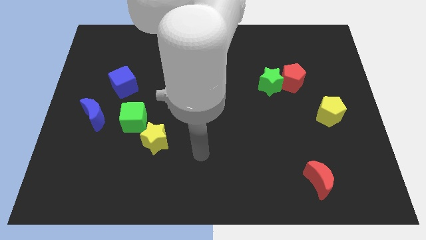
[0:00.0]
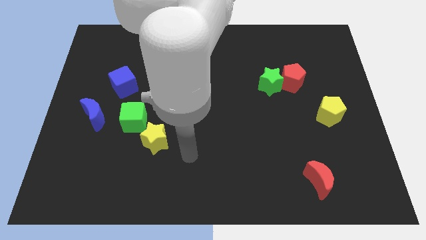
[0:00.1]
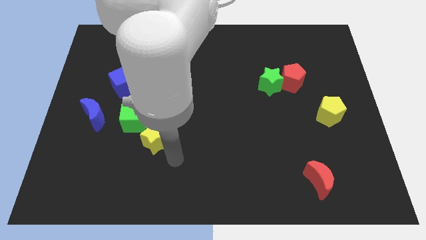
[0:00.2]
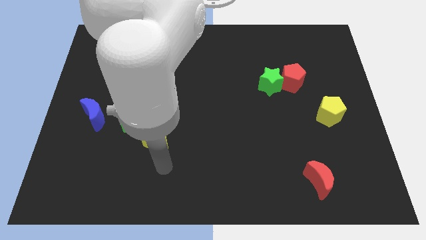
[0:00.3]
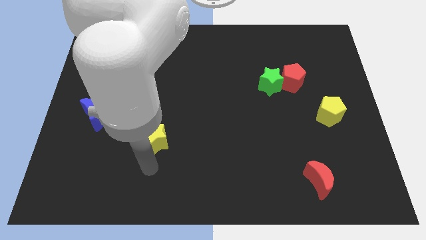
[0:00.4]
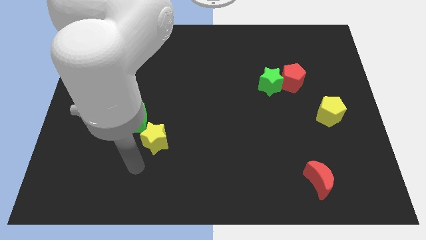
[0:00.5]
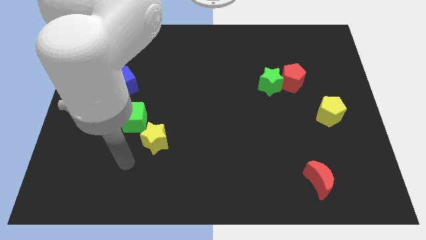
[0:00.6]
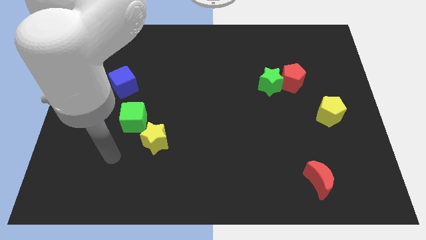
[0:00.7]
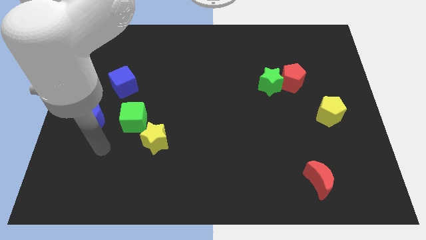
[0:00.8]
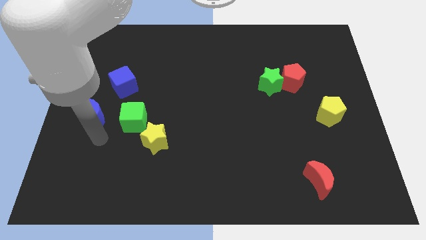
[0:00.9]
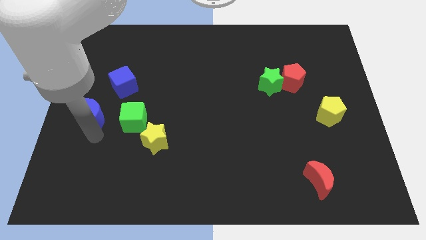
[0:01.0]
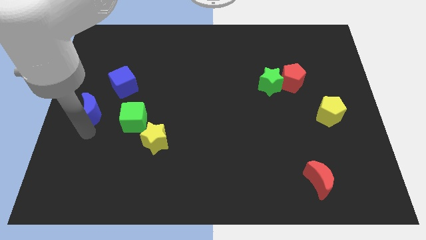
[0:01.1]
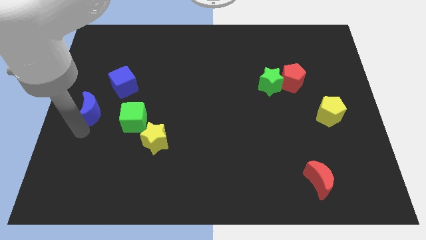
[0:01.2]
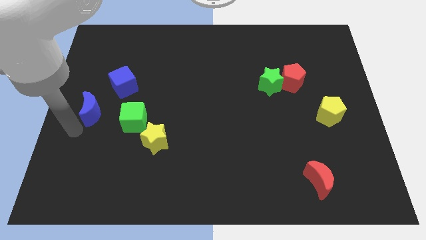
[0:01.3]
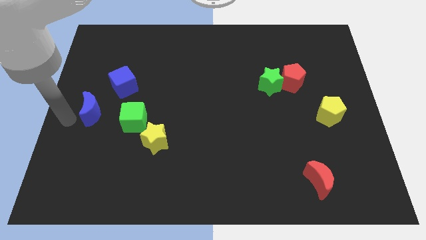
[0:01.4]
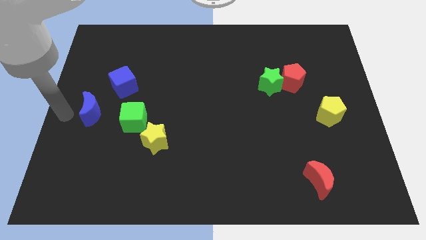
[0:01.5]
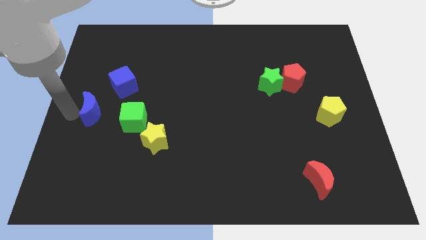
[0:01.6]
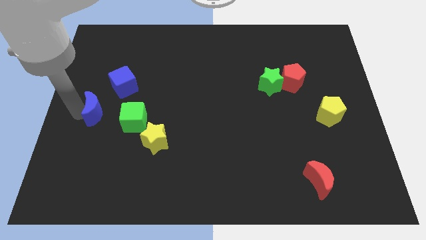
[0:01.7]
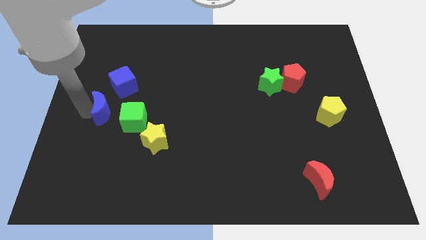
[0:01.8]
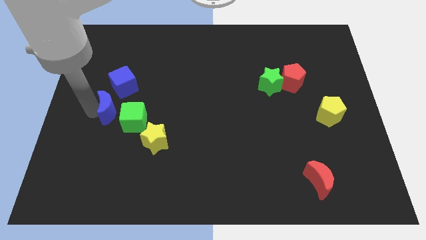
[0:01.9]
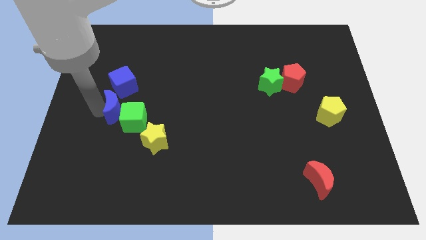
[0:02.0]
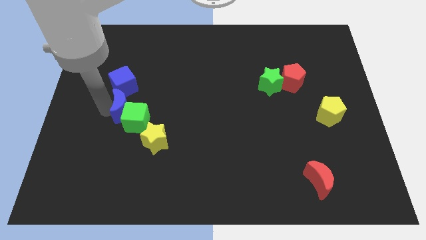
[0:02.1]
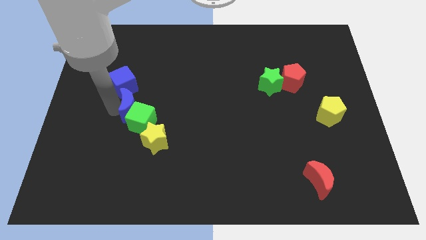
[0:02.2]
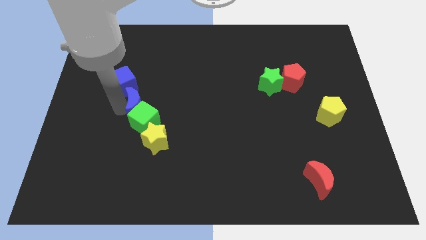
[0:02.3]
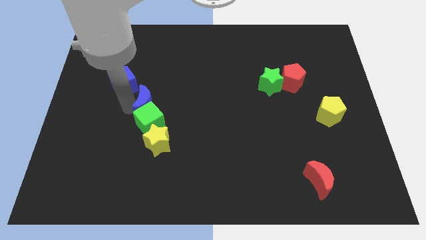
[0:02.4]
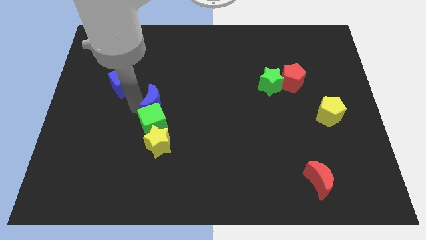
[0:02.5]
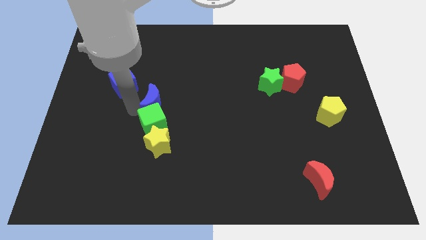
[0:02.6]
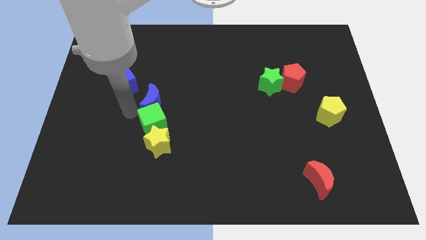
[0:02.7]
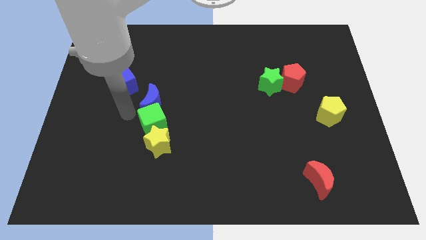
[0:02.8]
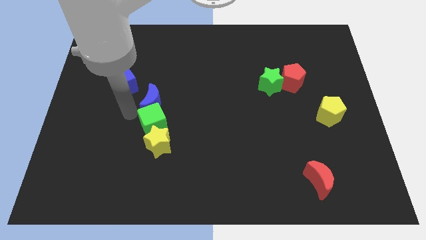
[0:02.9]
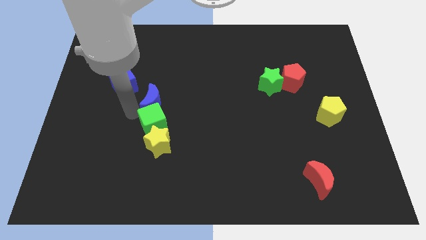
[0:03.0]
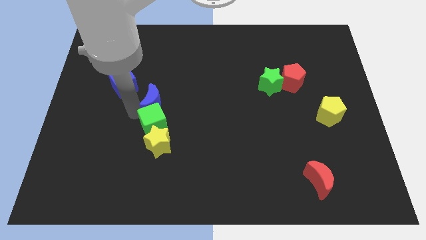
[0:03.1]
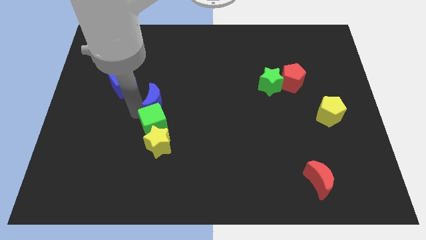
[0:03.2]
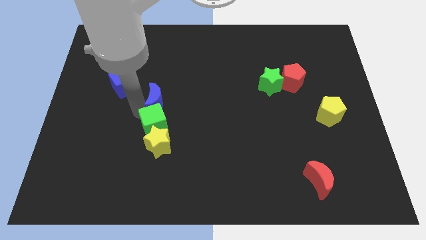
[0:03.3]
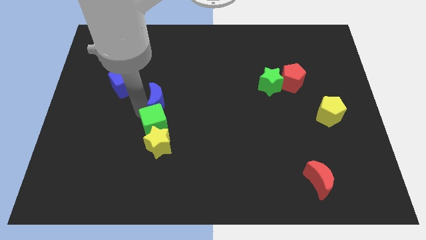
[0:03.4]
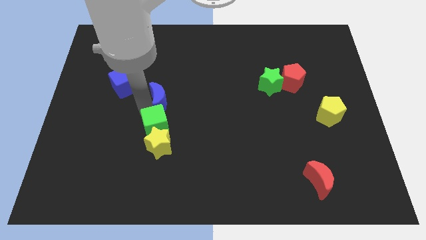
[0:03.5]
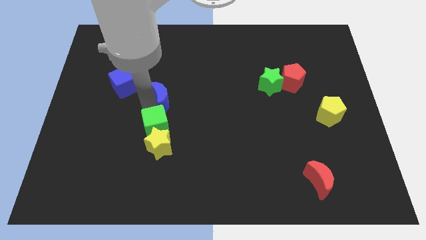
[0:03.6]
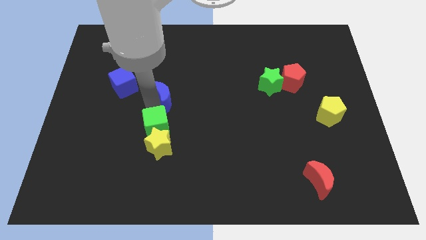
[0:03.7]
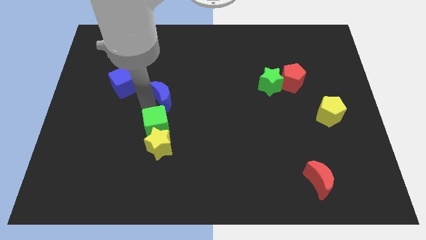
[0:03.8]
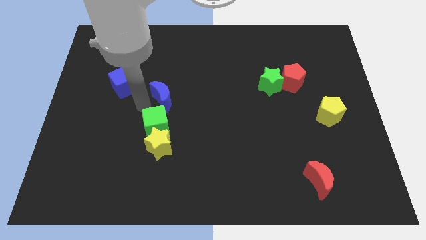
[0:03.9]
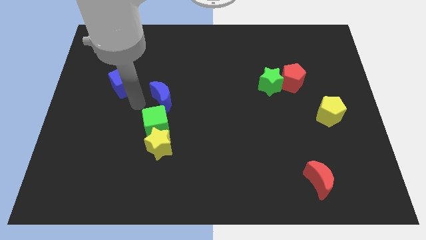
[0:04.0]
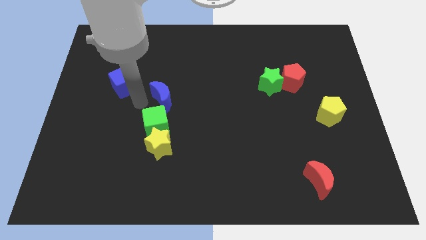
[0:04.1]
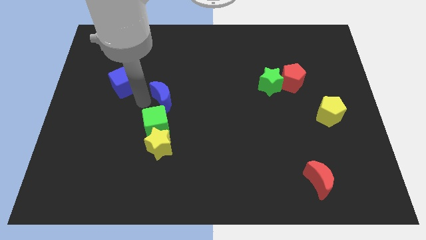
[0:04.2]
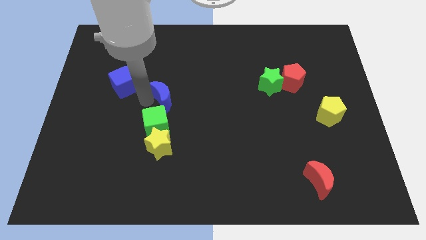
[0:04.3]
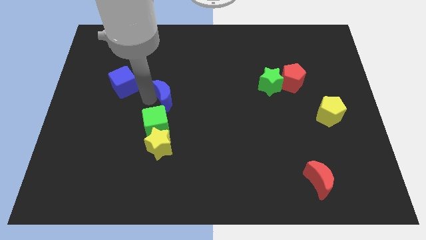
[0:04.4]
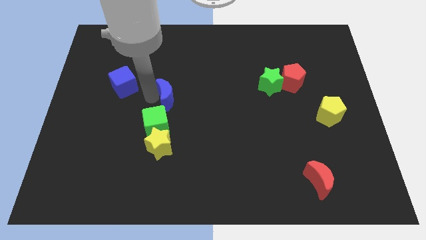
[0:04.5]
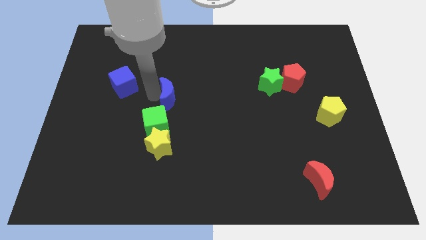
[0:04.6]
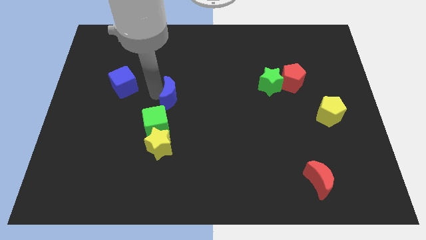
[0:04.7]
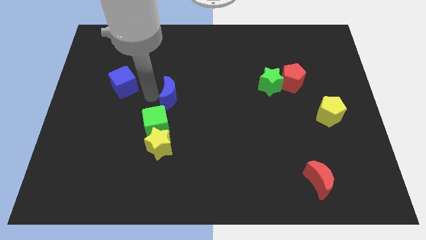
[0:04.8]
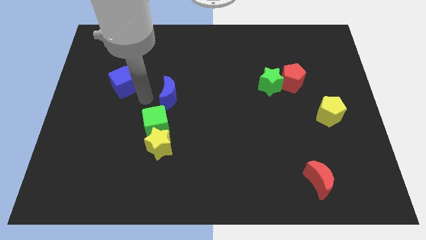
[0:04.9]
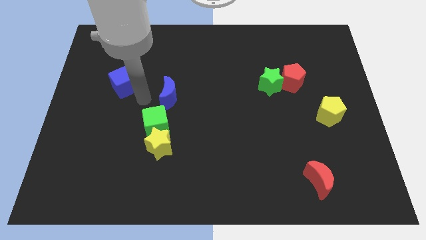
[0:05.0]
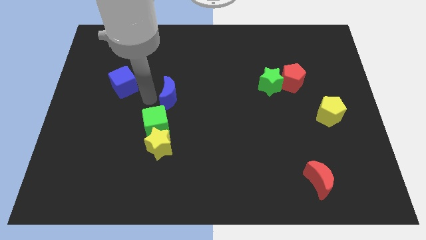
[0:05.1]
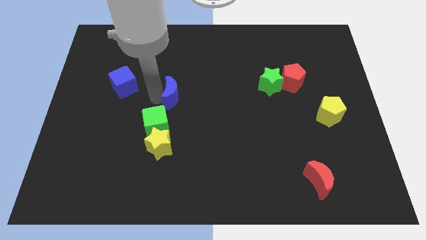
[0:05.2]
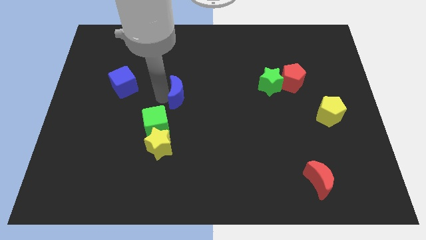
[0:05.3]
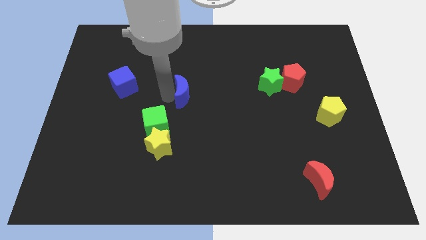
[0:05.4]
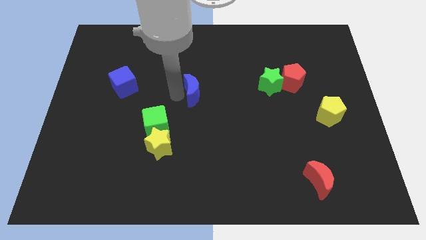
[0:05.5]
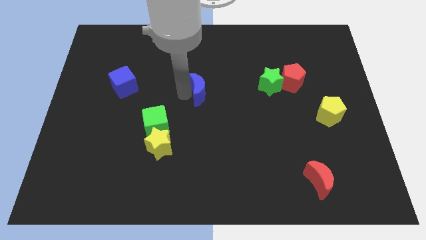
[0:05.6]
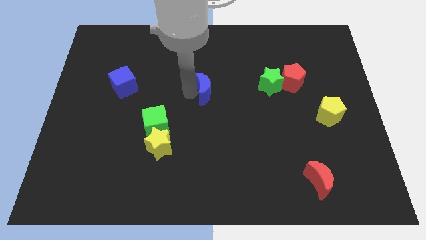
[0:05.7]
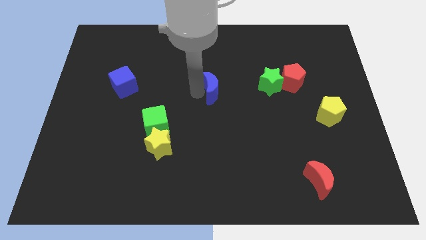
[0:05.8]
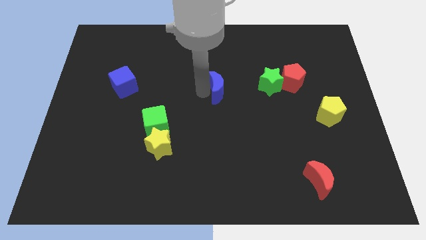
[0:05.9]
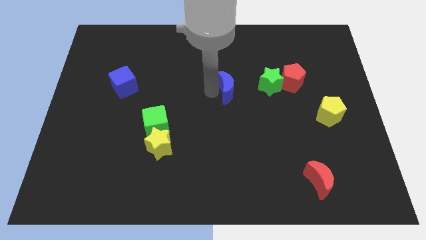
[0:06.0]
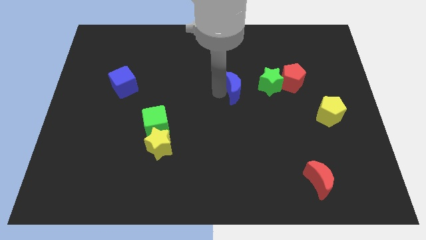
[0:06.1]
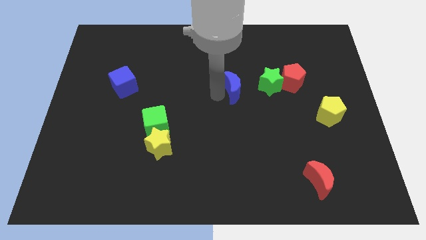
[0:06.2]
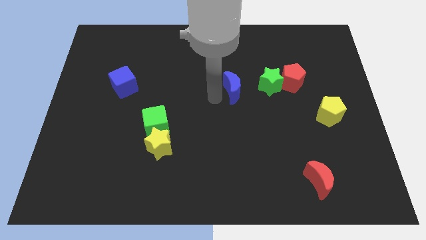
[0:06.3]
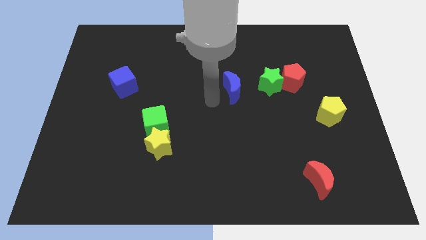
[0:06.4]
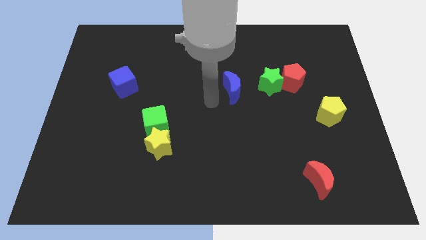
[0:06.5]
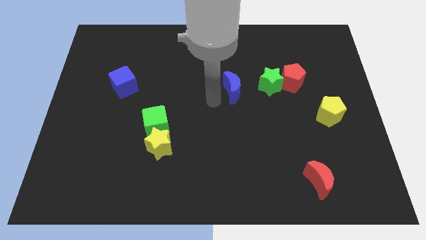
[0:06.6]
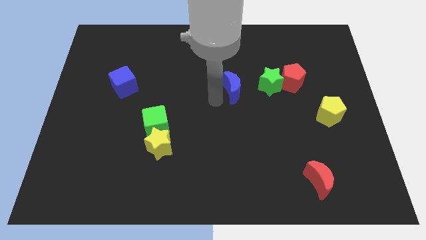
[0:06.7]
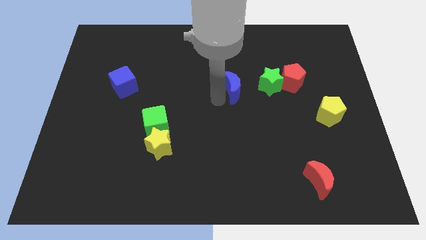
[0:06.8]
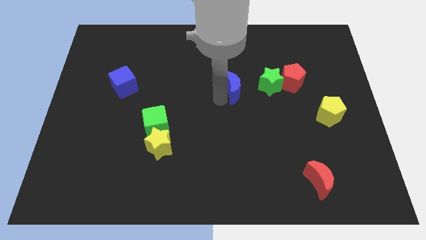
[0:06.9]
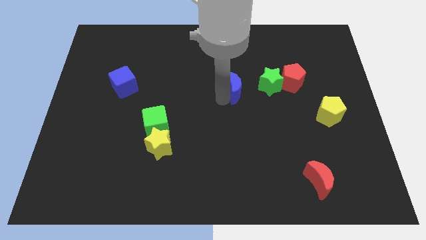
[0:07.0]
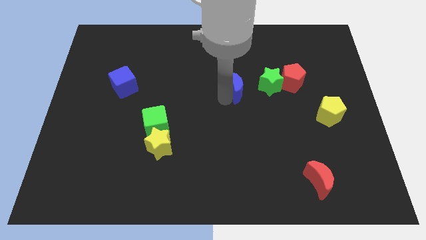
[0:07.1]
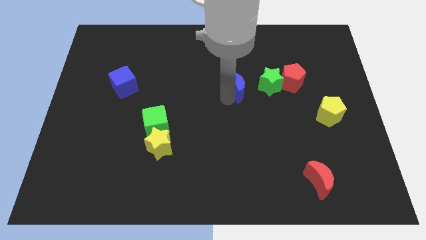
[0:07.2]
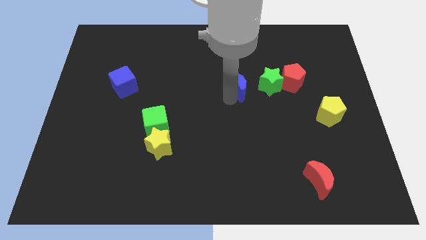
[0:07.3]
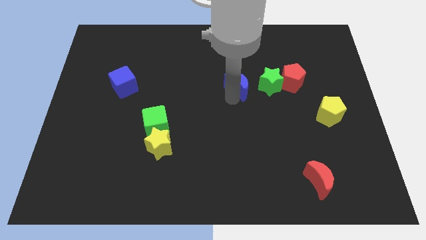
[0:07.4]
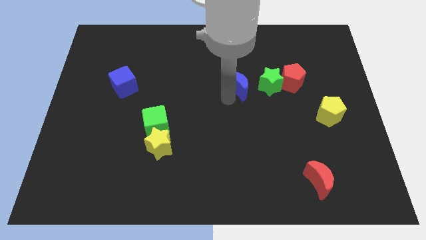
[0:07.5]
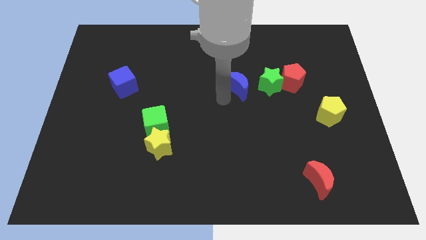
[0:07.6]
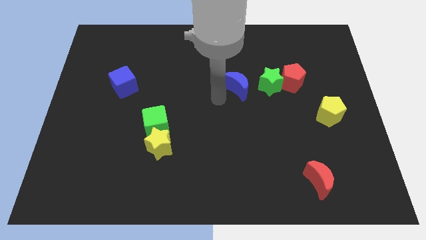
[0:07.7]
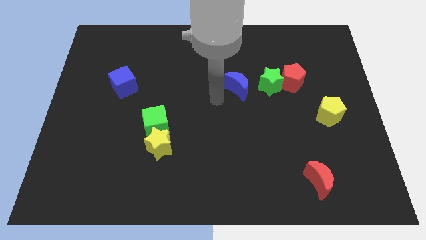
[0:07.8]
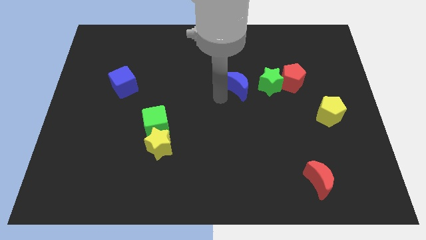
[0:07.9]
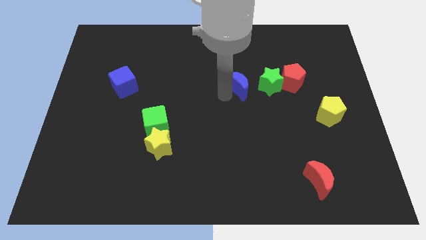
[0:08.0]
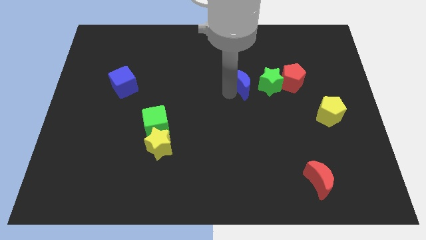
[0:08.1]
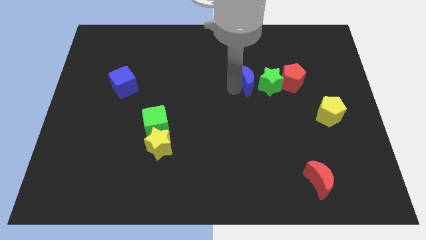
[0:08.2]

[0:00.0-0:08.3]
move the blue moon towards the green star
